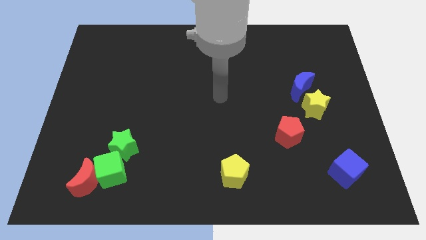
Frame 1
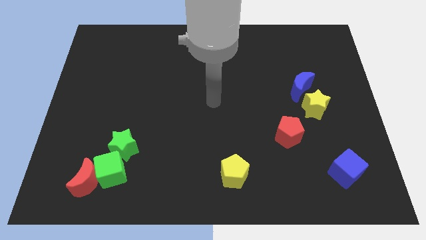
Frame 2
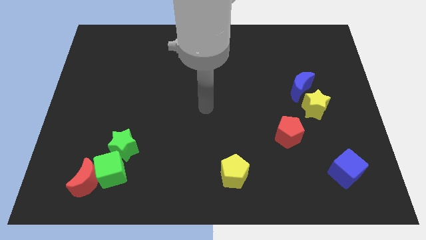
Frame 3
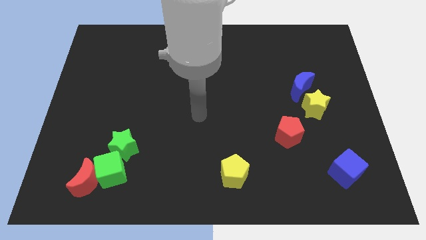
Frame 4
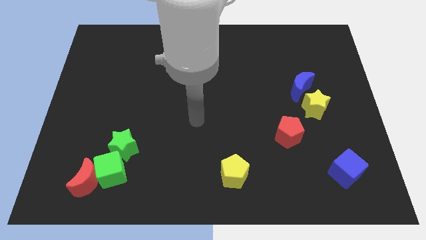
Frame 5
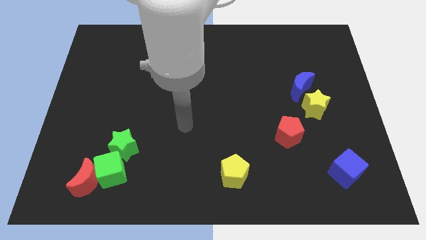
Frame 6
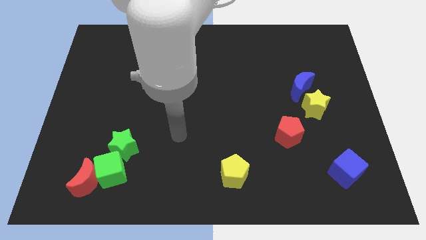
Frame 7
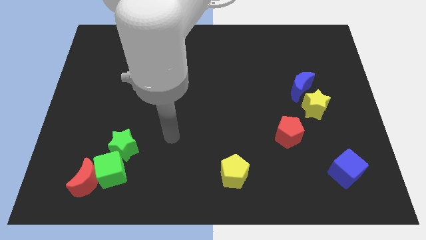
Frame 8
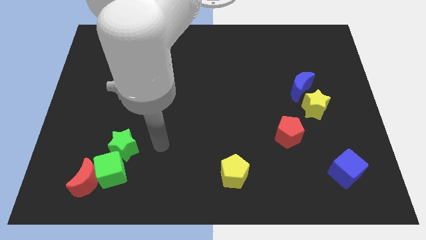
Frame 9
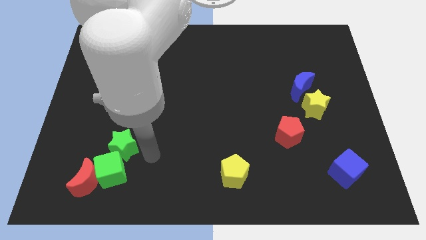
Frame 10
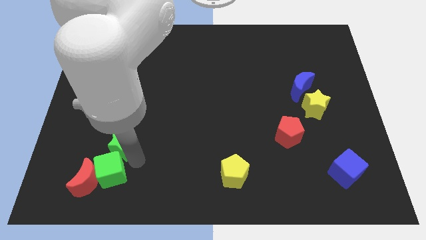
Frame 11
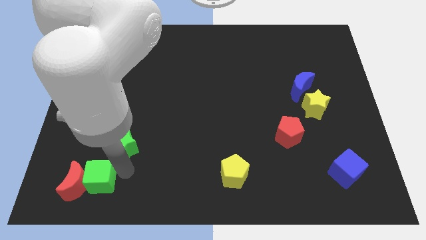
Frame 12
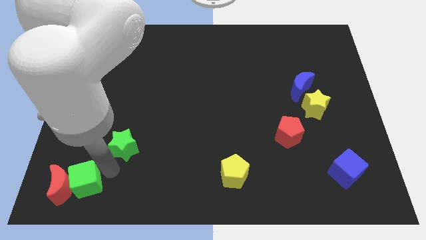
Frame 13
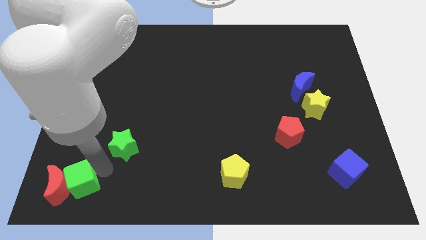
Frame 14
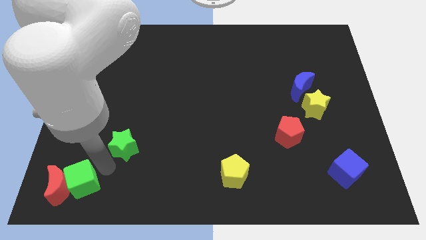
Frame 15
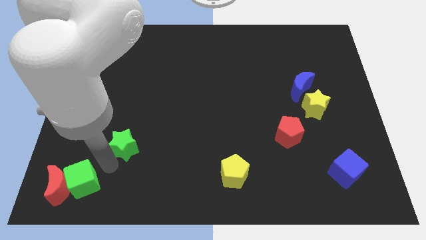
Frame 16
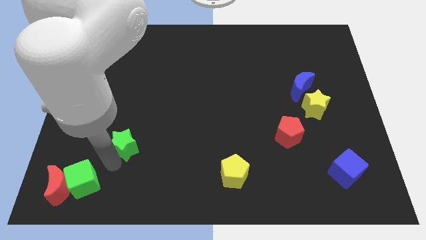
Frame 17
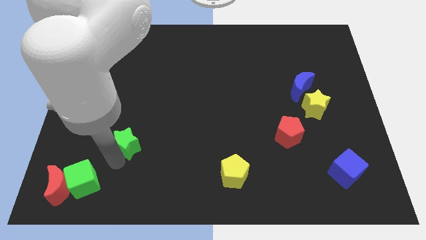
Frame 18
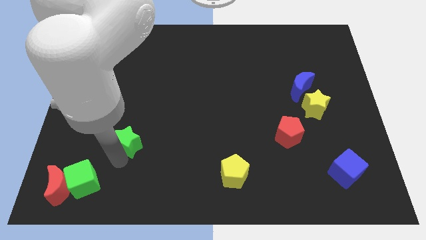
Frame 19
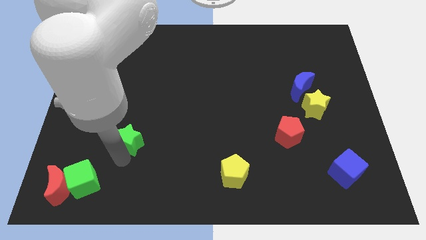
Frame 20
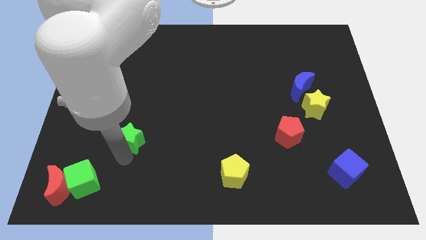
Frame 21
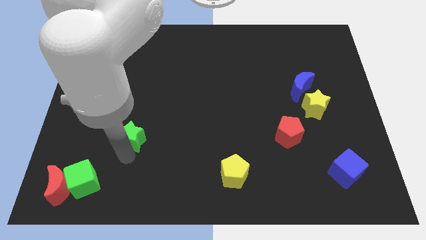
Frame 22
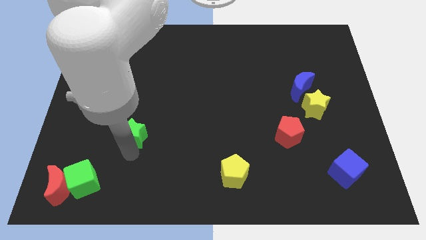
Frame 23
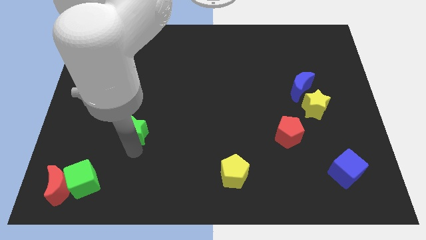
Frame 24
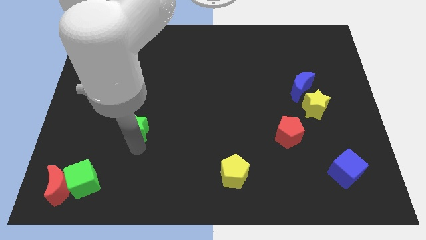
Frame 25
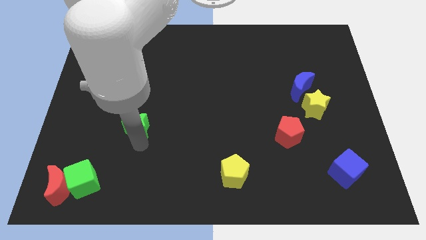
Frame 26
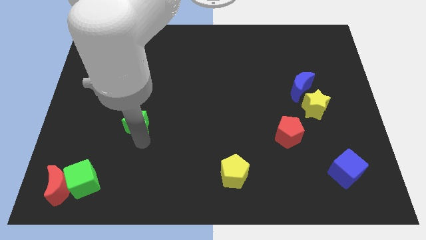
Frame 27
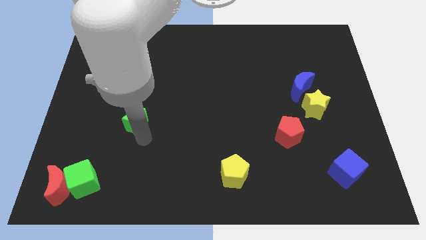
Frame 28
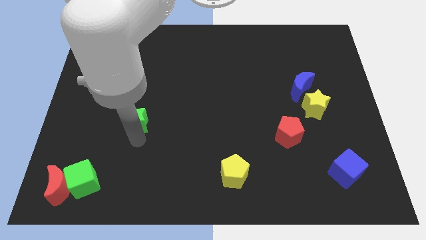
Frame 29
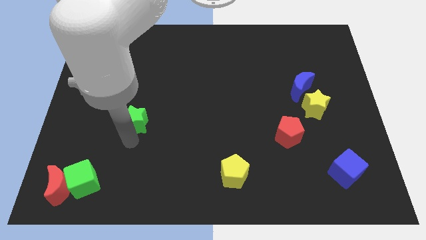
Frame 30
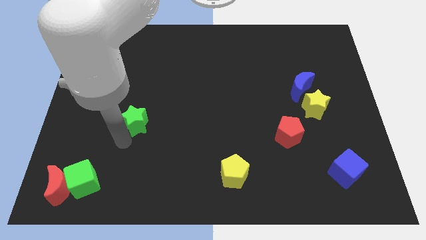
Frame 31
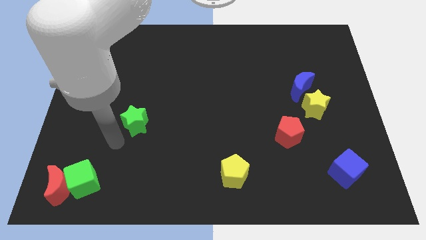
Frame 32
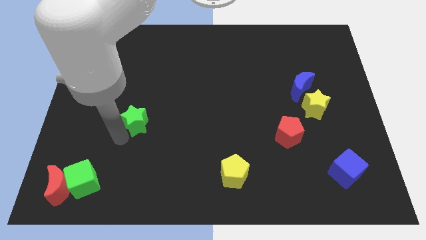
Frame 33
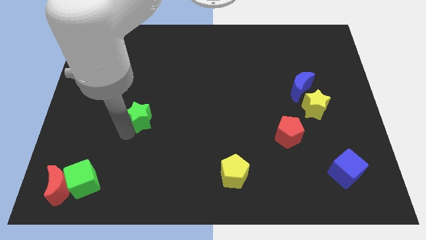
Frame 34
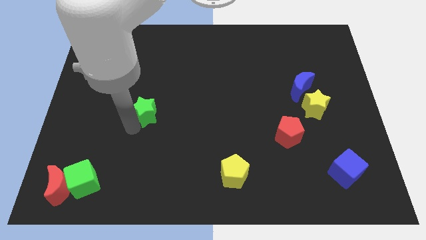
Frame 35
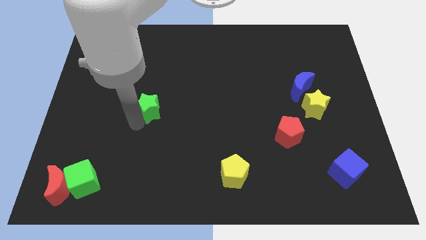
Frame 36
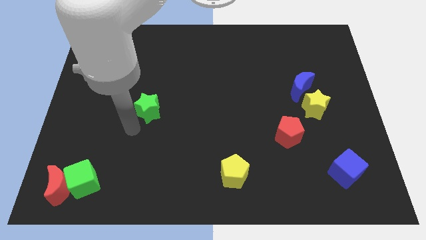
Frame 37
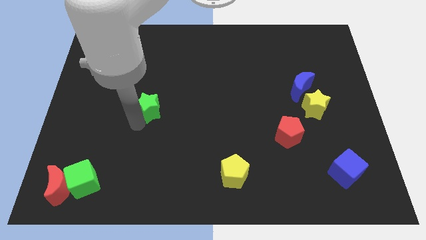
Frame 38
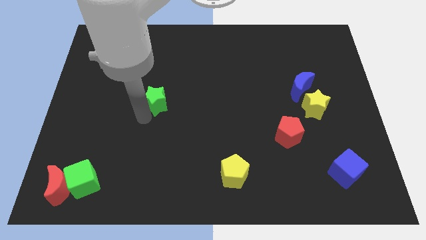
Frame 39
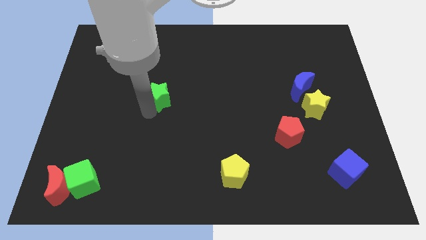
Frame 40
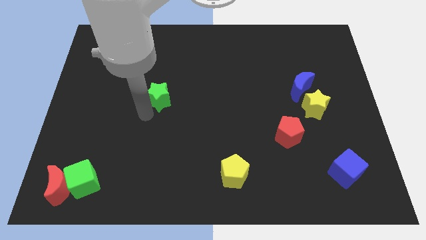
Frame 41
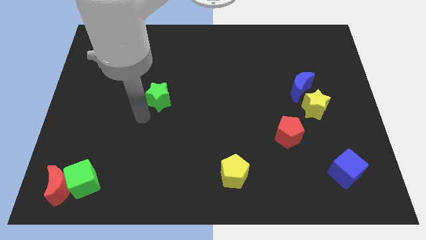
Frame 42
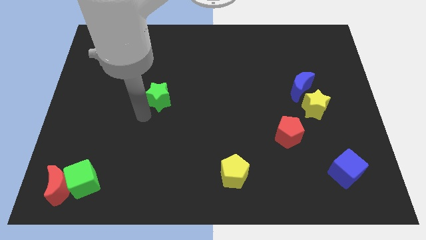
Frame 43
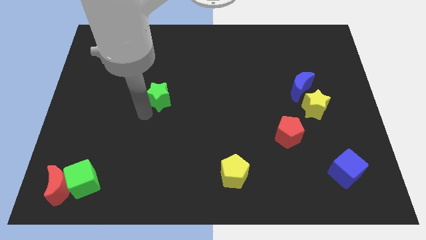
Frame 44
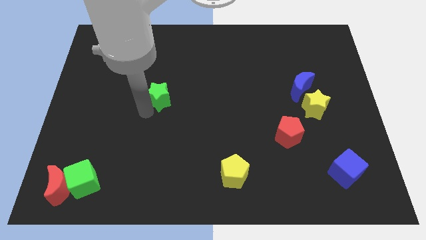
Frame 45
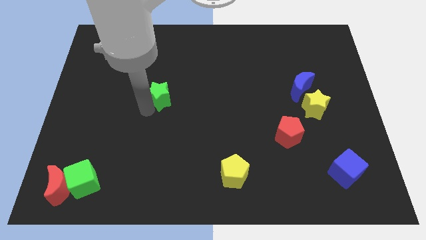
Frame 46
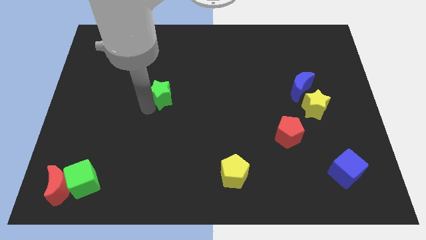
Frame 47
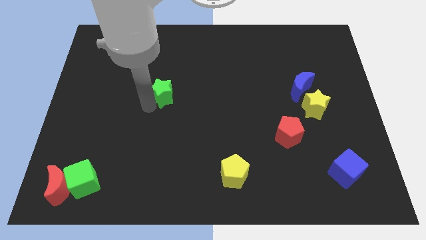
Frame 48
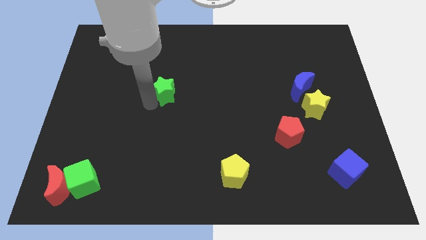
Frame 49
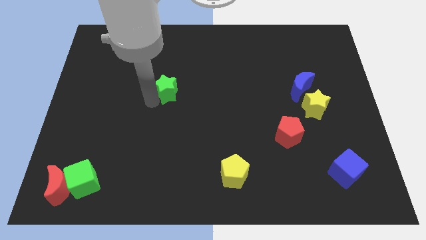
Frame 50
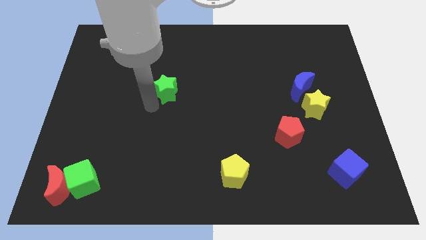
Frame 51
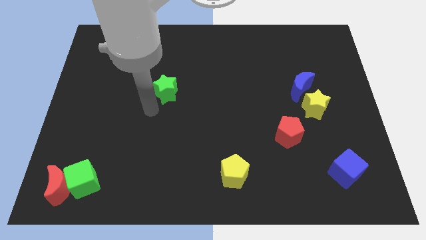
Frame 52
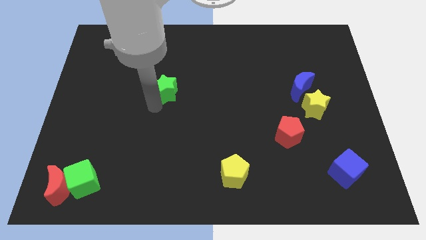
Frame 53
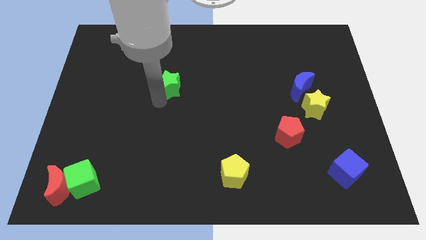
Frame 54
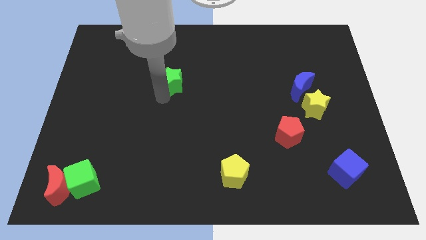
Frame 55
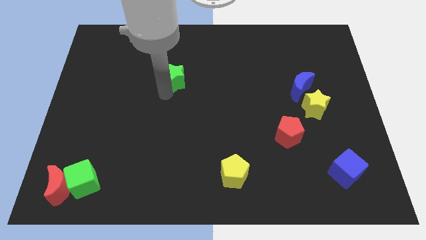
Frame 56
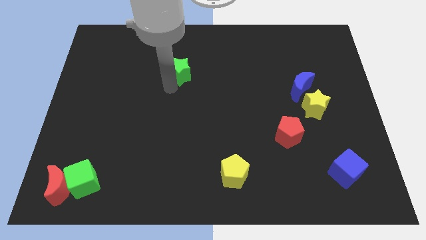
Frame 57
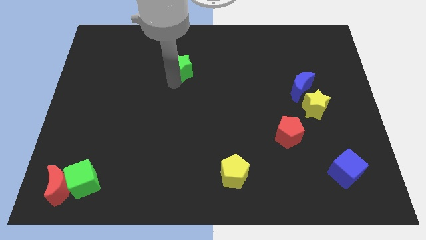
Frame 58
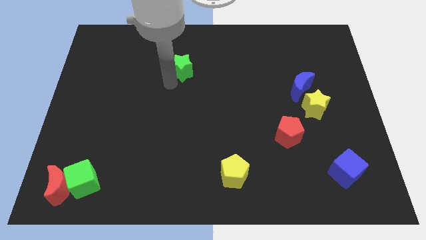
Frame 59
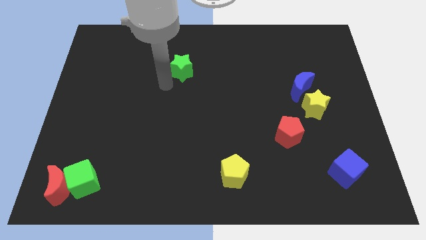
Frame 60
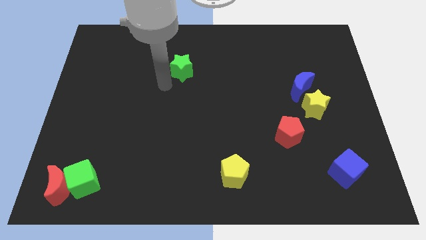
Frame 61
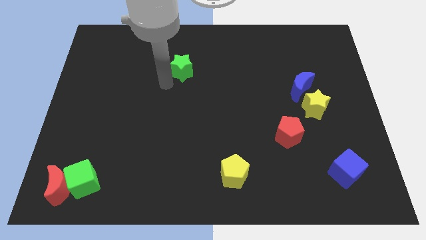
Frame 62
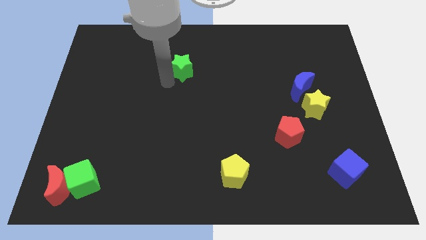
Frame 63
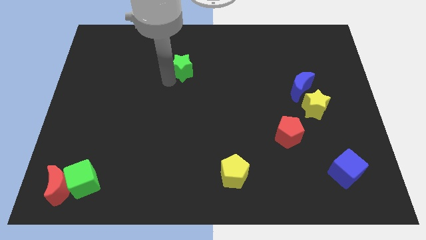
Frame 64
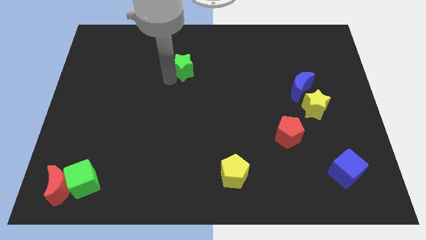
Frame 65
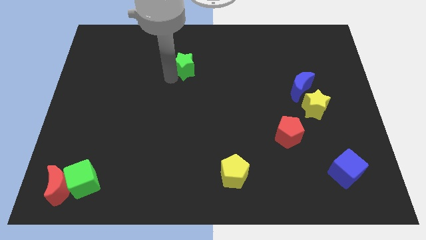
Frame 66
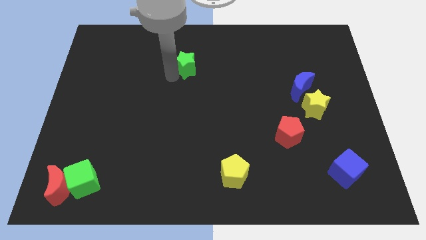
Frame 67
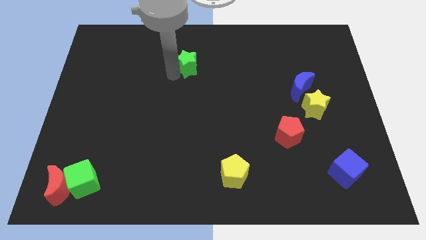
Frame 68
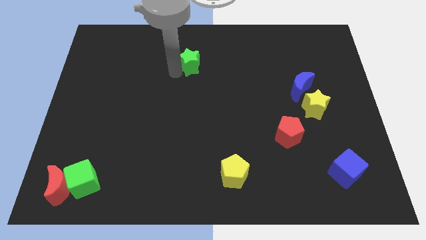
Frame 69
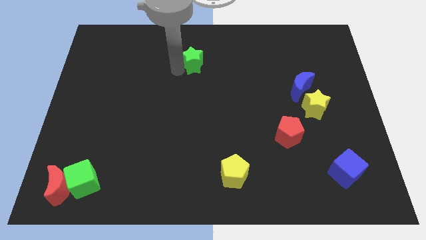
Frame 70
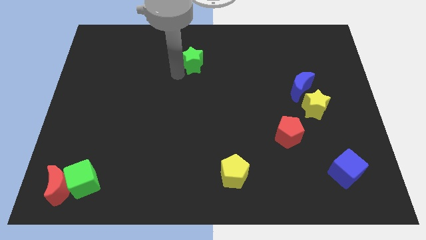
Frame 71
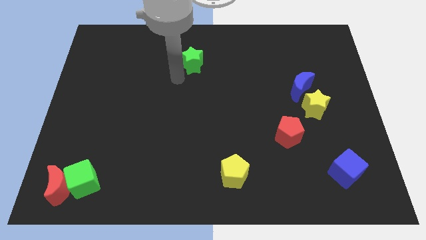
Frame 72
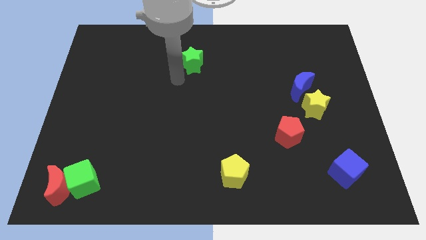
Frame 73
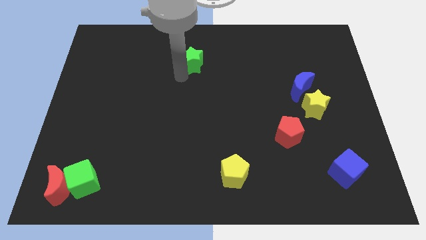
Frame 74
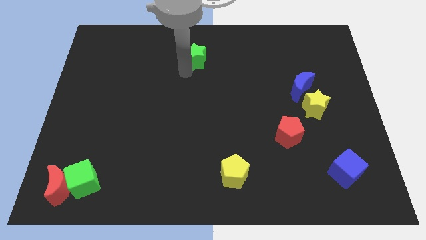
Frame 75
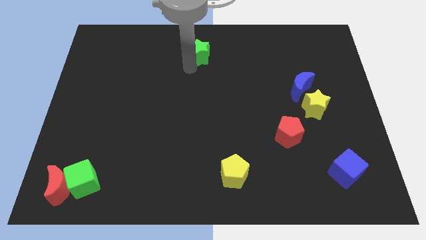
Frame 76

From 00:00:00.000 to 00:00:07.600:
slide the green star to the top
